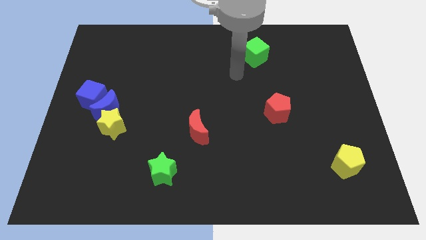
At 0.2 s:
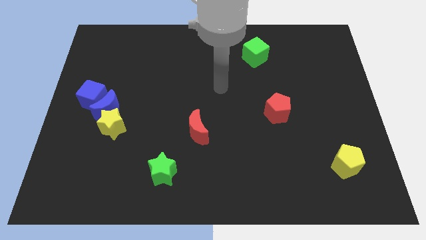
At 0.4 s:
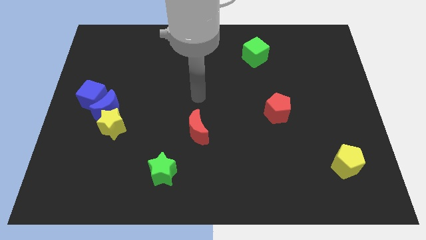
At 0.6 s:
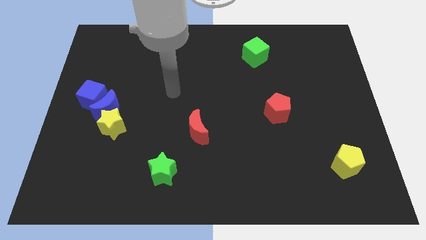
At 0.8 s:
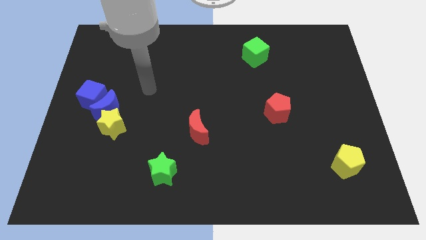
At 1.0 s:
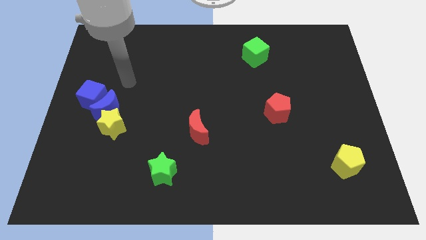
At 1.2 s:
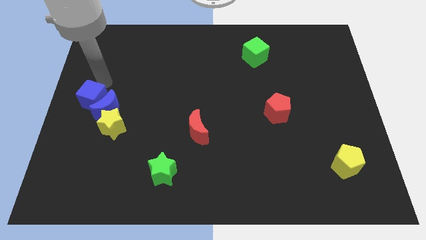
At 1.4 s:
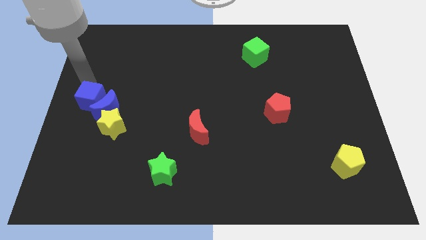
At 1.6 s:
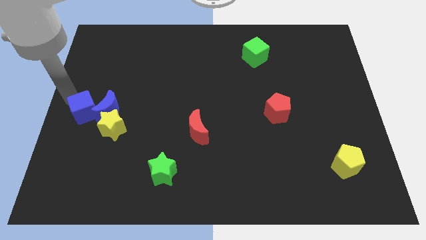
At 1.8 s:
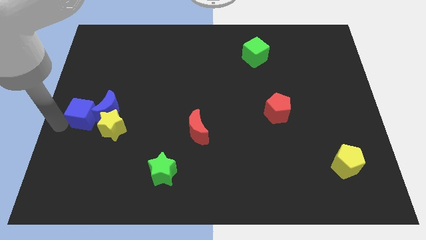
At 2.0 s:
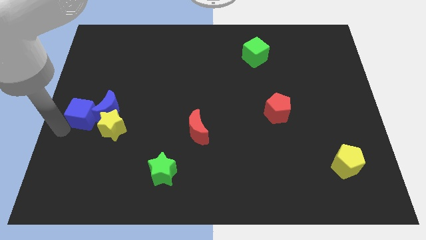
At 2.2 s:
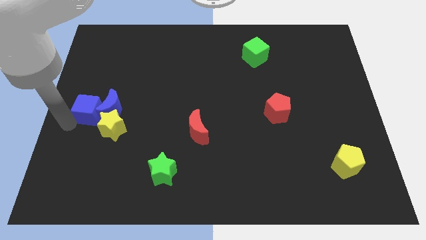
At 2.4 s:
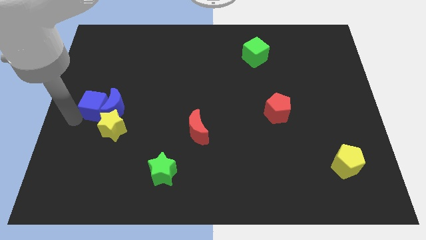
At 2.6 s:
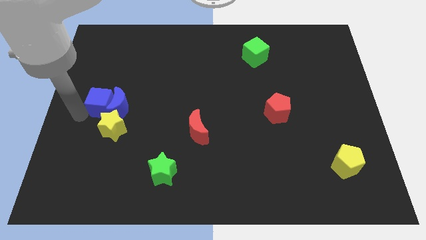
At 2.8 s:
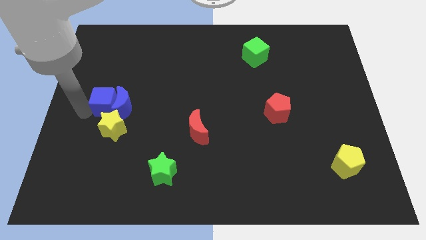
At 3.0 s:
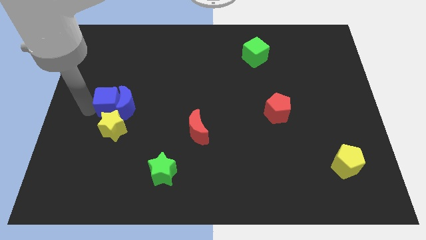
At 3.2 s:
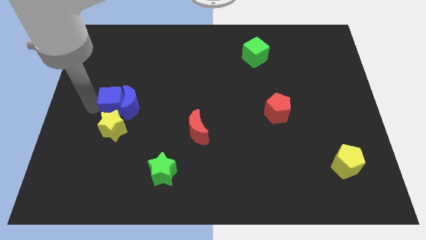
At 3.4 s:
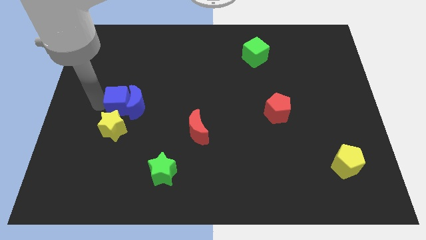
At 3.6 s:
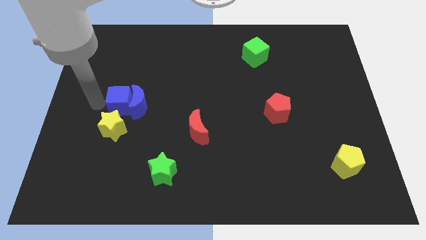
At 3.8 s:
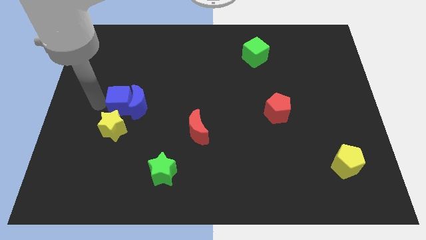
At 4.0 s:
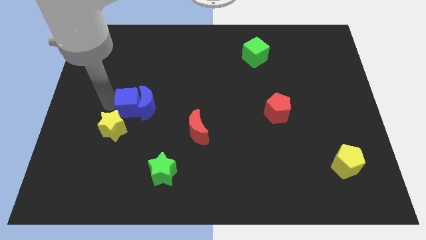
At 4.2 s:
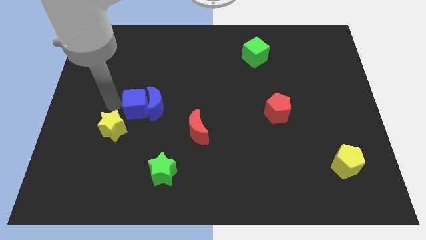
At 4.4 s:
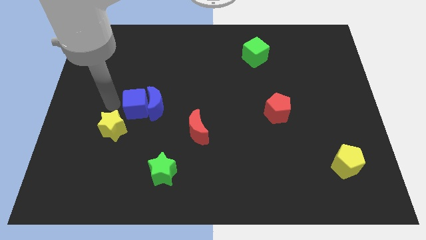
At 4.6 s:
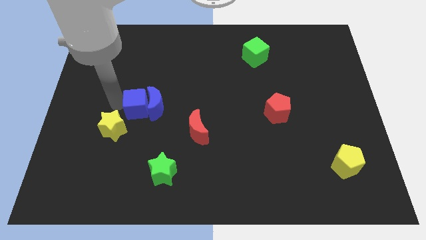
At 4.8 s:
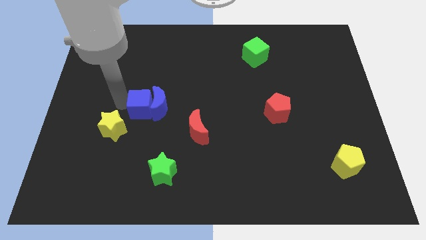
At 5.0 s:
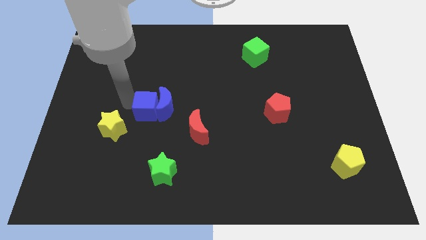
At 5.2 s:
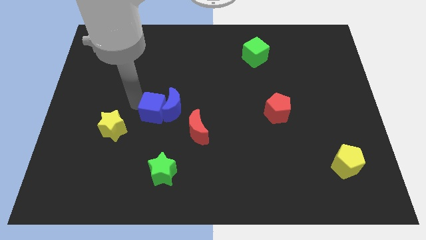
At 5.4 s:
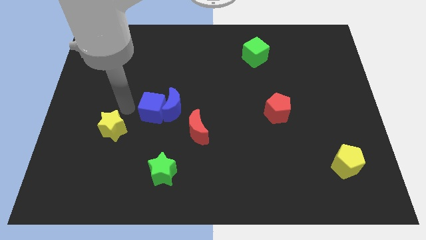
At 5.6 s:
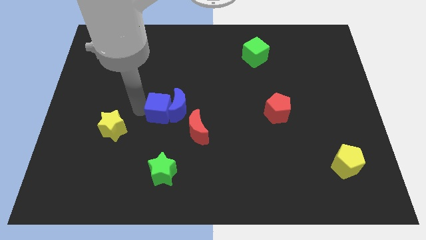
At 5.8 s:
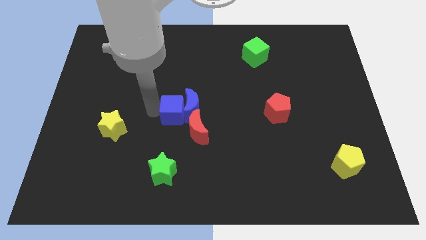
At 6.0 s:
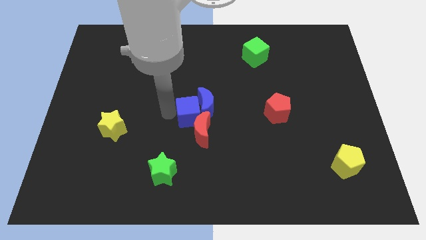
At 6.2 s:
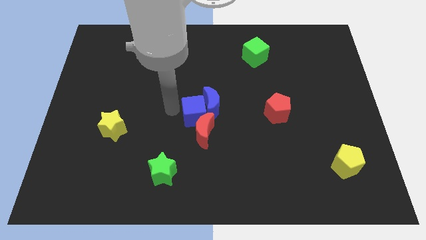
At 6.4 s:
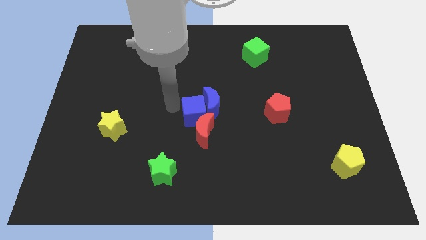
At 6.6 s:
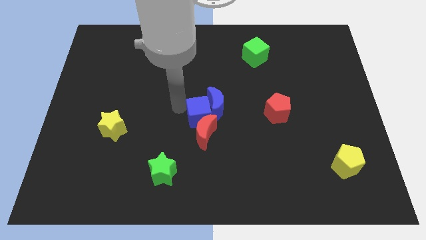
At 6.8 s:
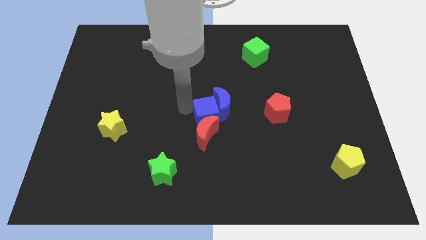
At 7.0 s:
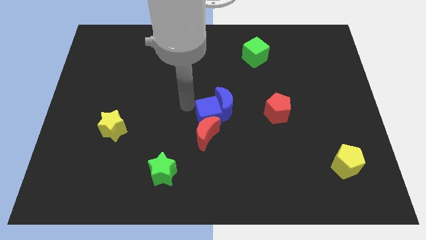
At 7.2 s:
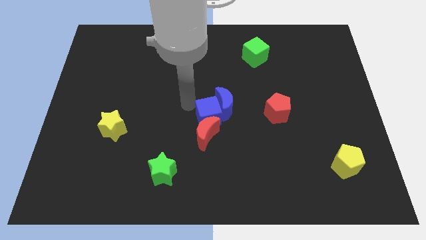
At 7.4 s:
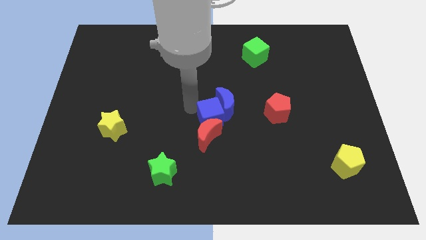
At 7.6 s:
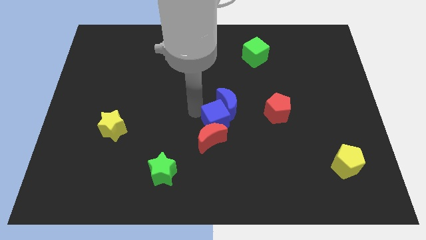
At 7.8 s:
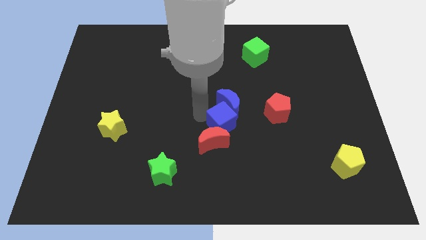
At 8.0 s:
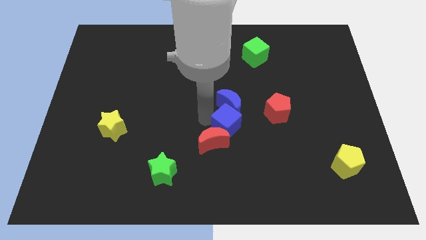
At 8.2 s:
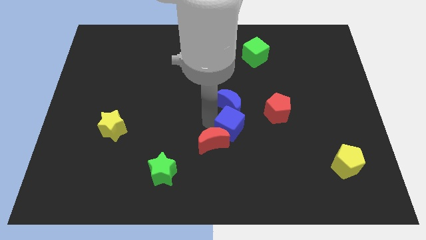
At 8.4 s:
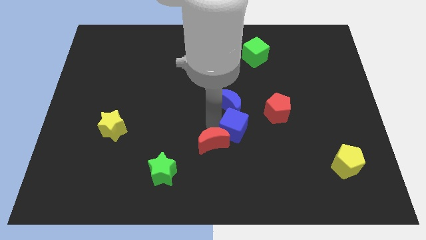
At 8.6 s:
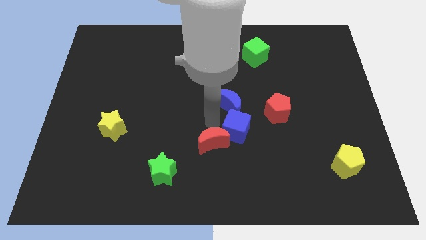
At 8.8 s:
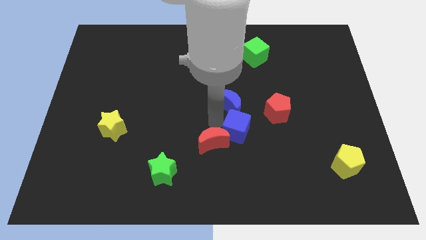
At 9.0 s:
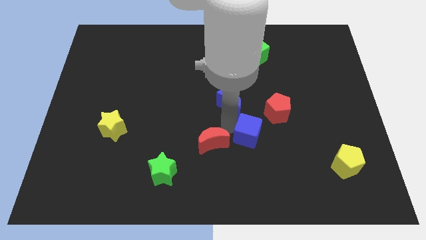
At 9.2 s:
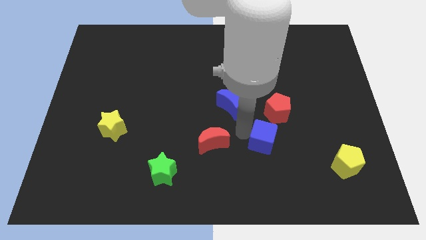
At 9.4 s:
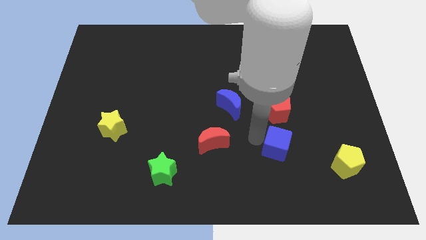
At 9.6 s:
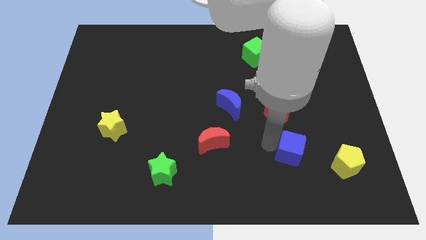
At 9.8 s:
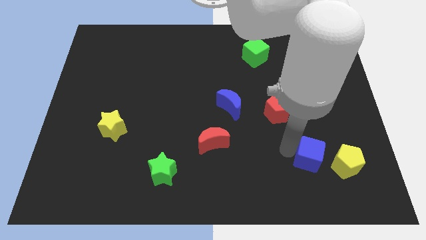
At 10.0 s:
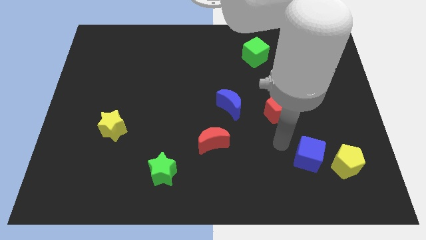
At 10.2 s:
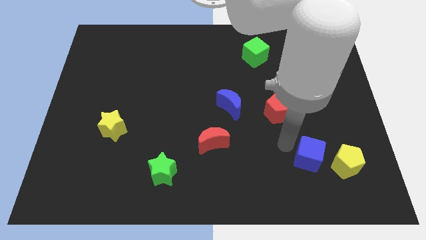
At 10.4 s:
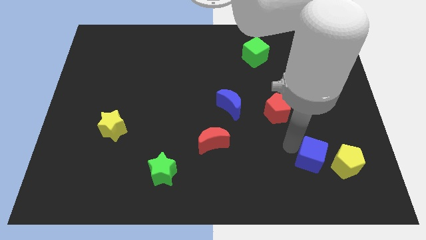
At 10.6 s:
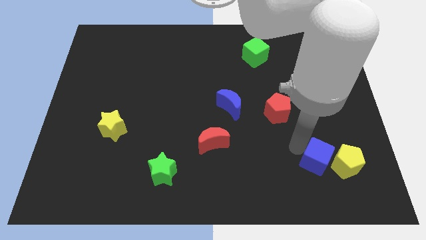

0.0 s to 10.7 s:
push the blue cube close to the yellow pentagon
